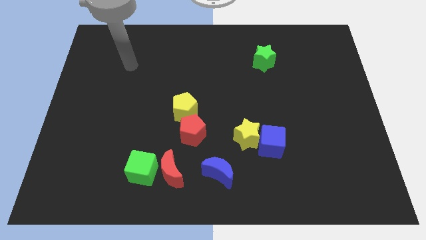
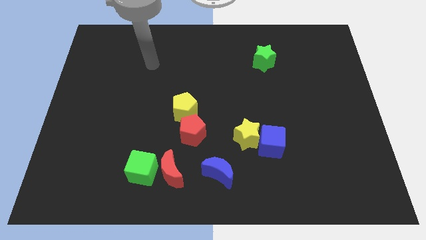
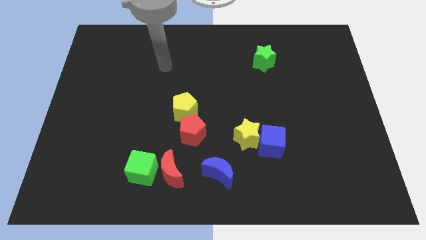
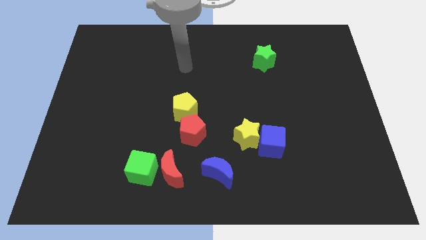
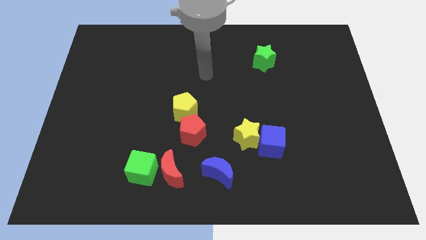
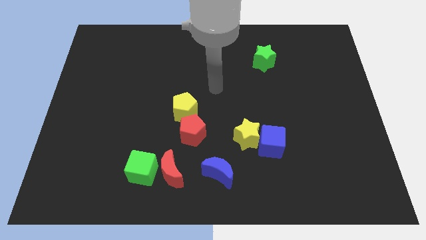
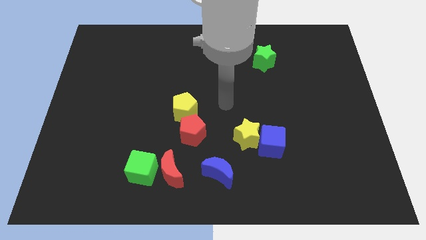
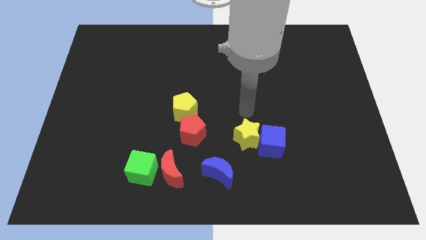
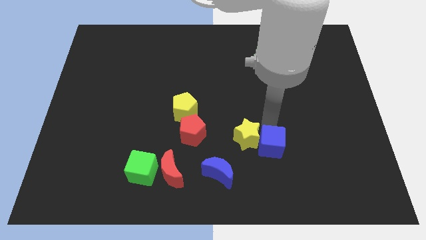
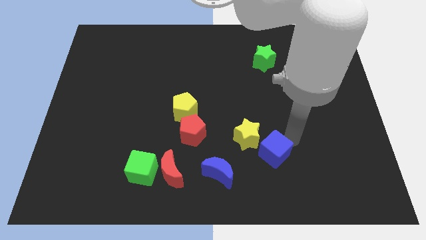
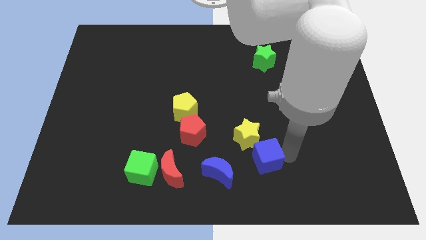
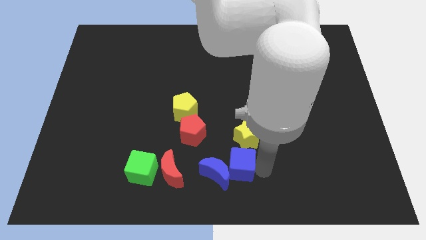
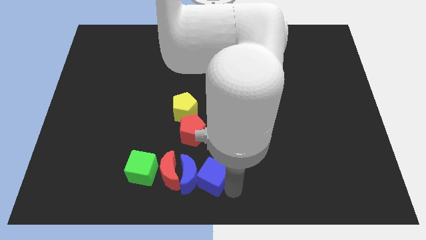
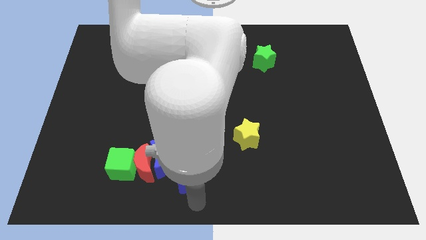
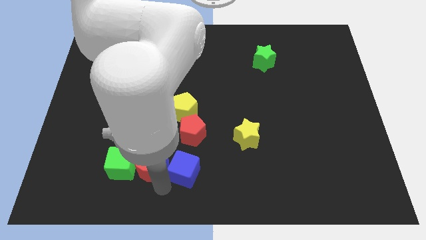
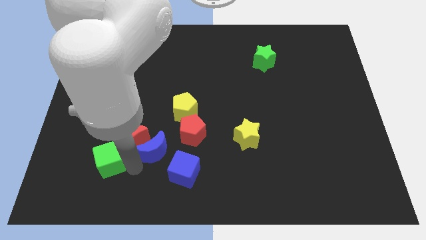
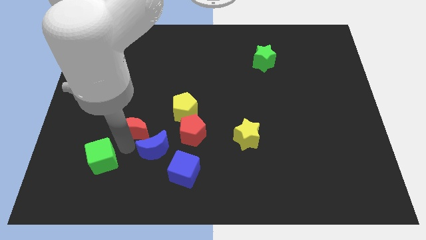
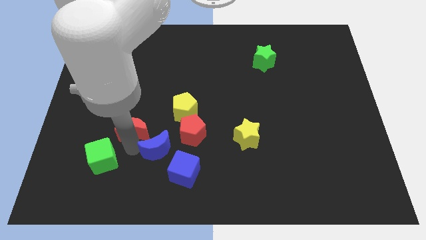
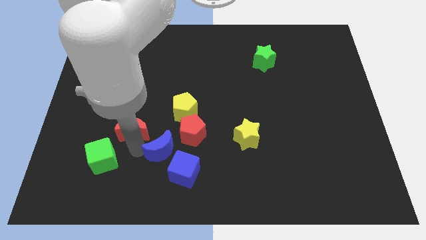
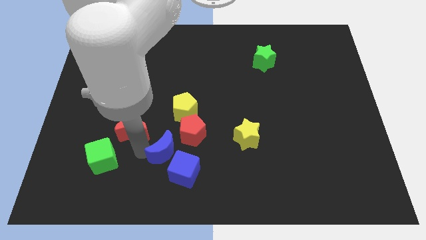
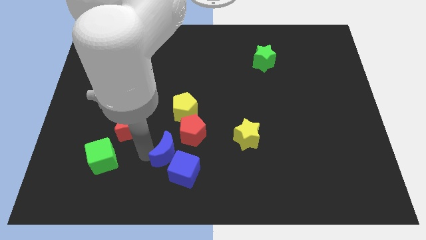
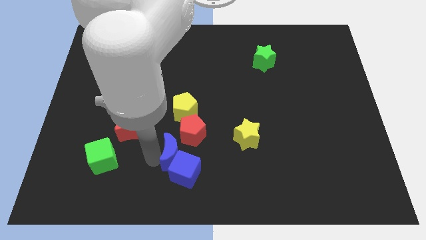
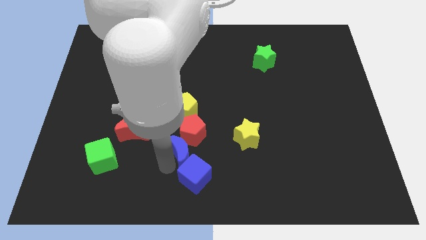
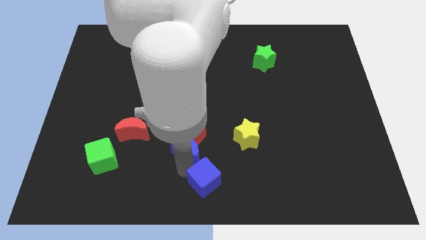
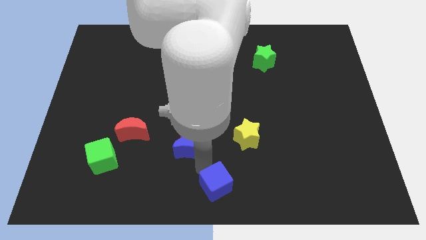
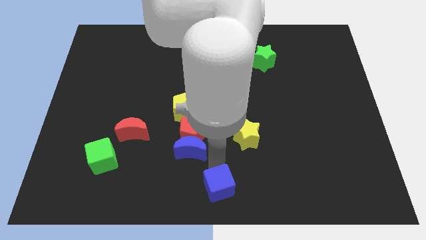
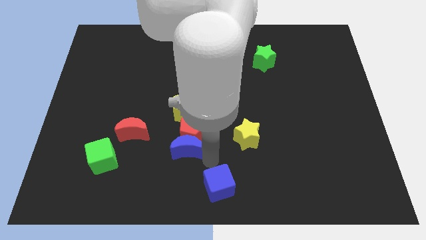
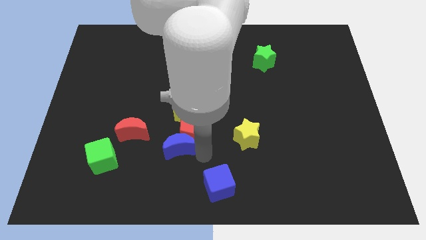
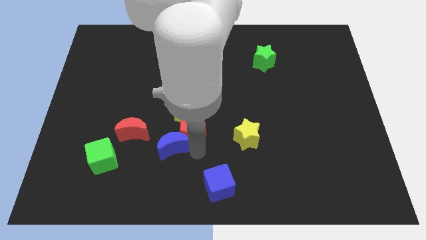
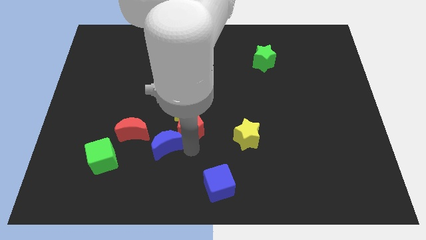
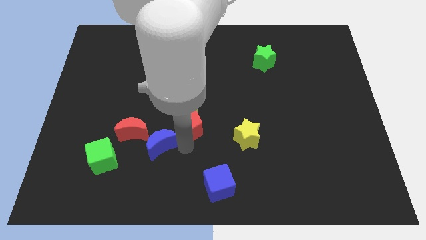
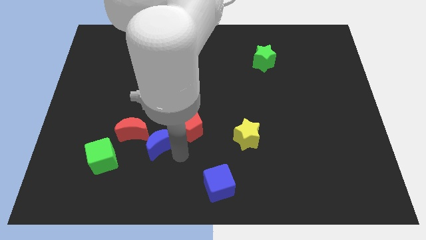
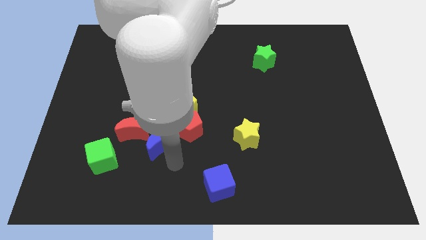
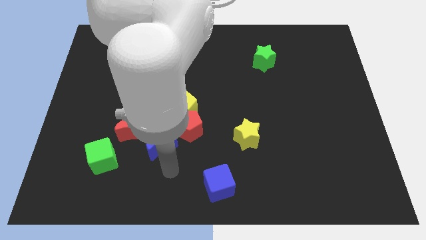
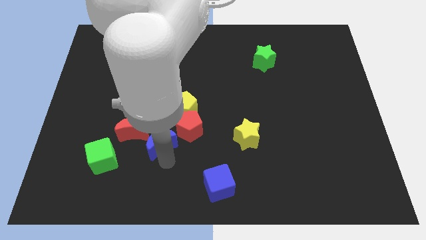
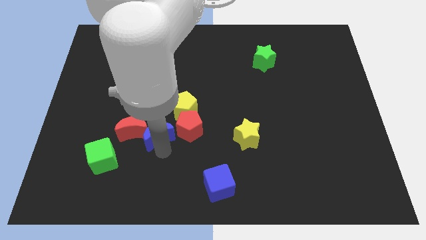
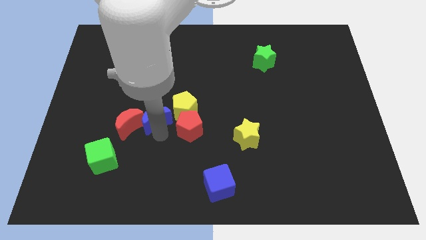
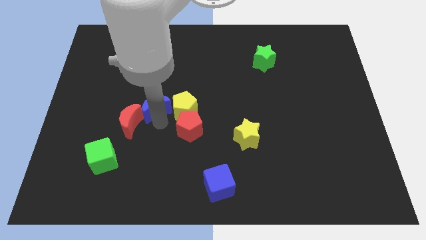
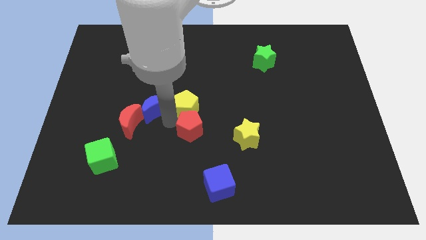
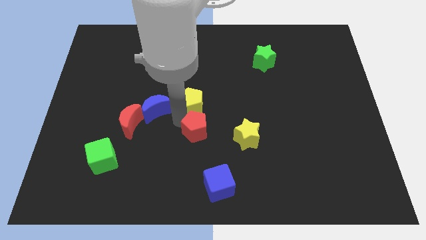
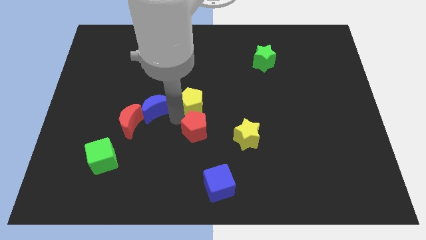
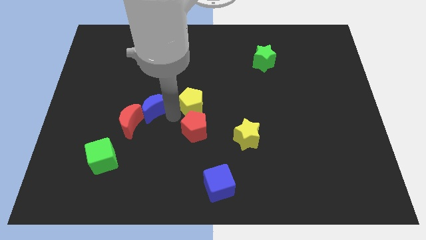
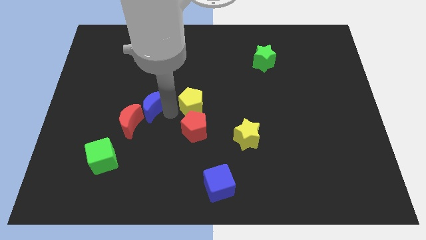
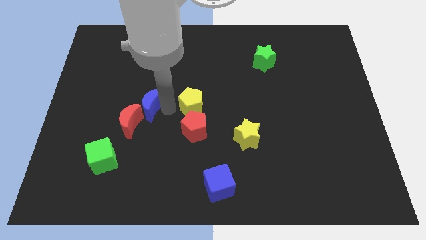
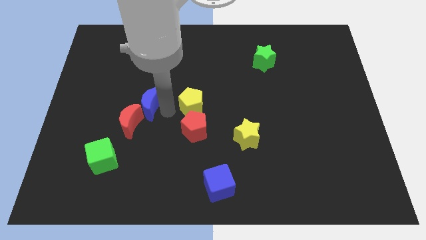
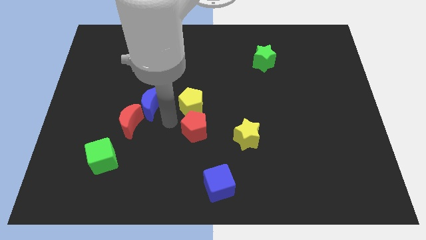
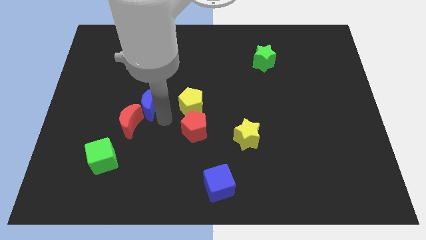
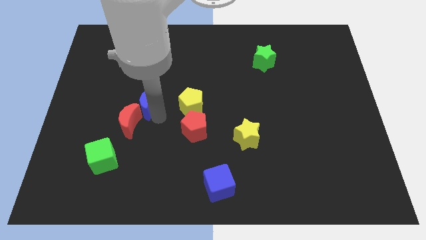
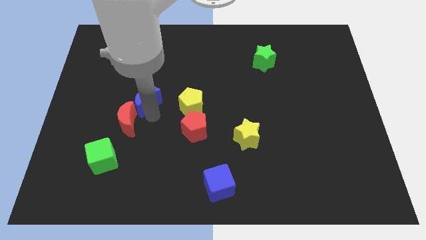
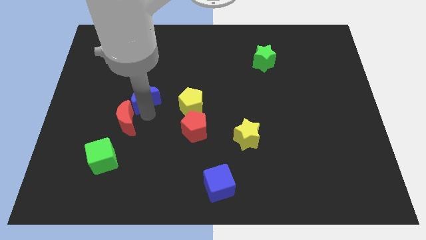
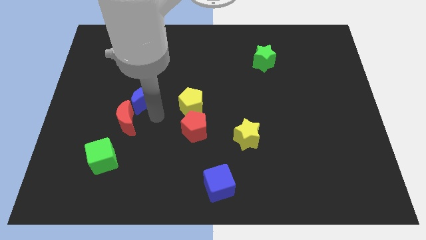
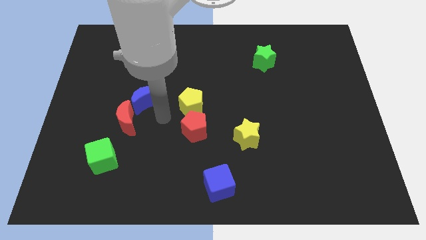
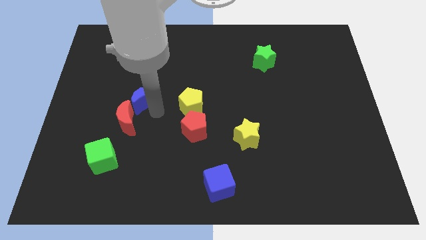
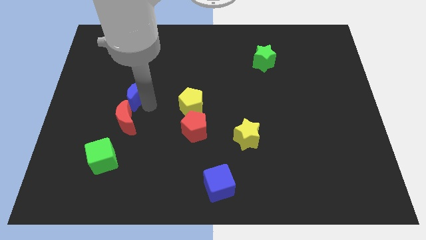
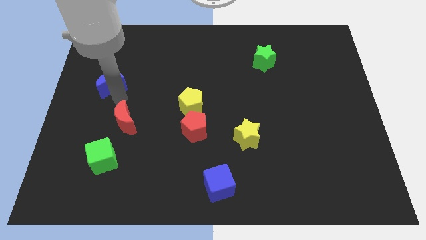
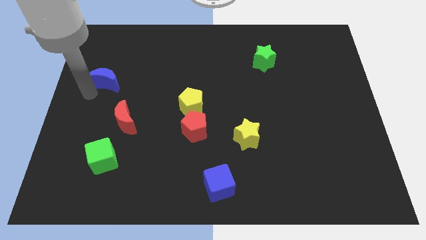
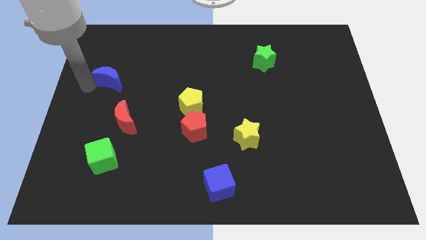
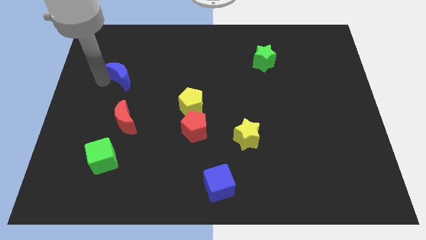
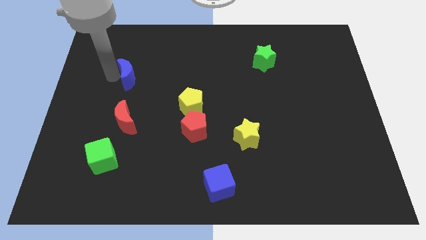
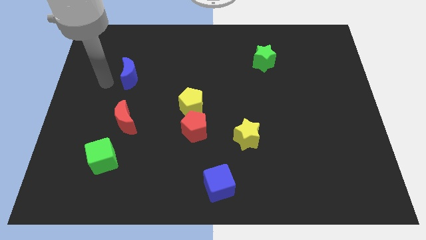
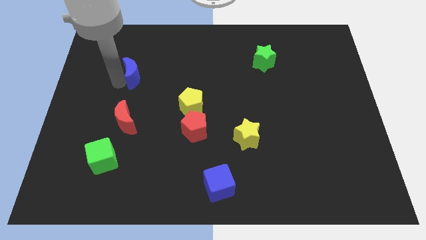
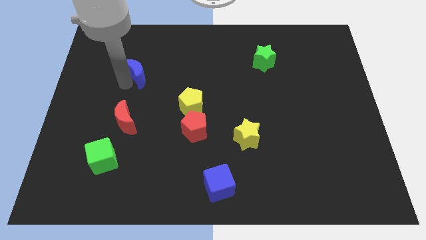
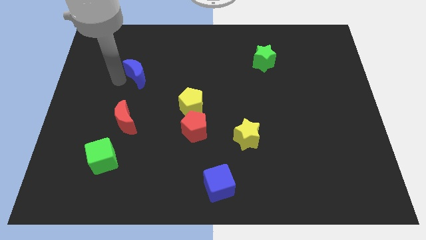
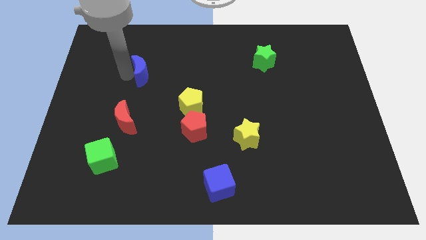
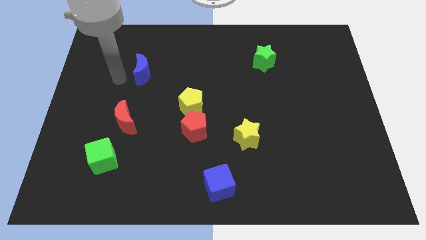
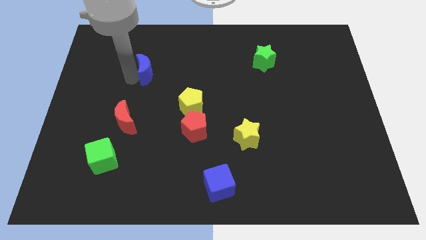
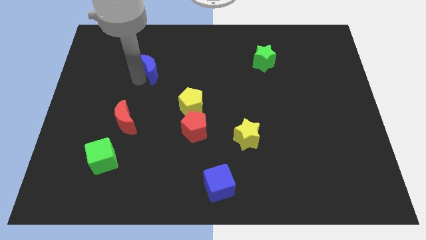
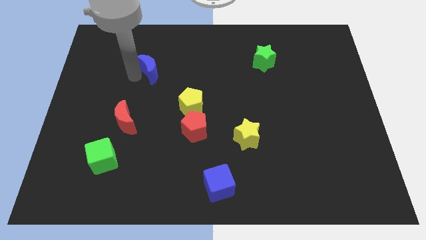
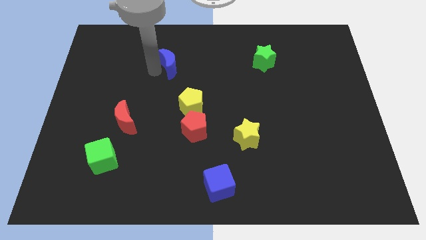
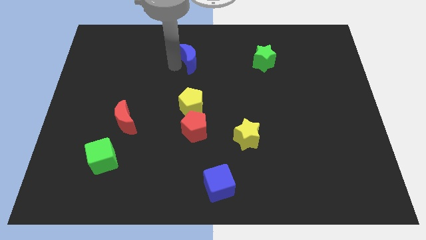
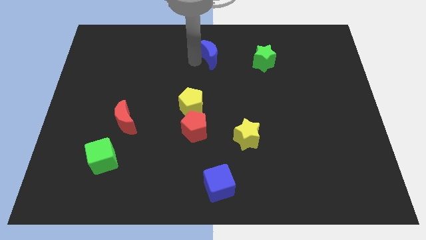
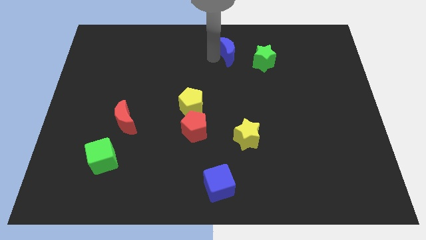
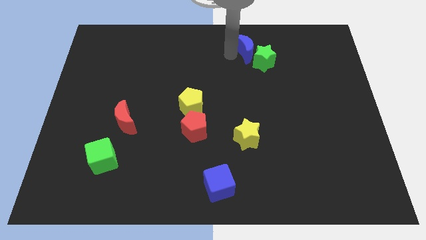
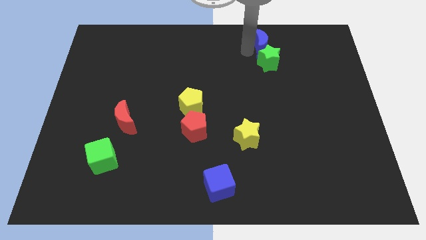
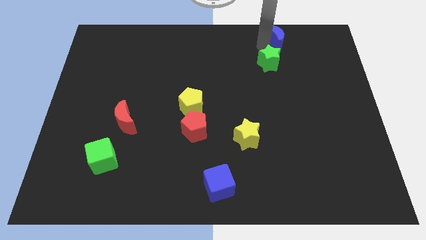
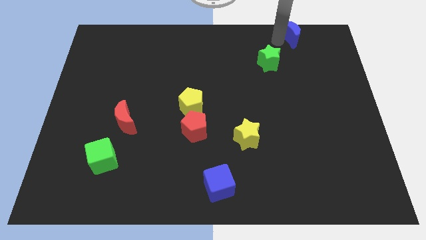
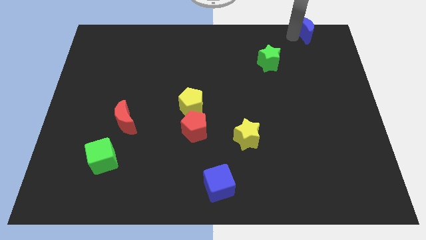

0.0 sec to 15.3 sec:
push the blue moon to the top right corner
